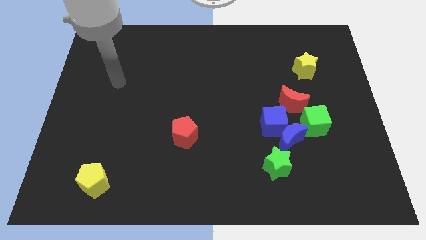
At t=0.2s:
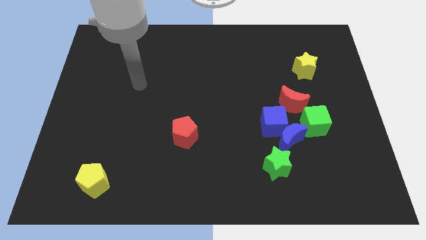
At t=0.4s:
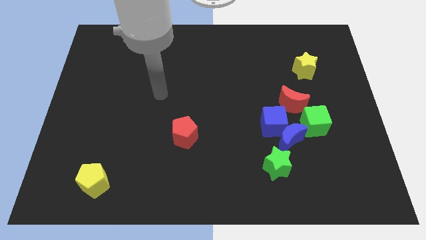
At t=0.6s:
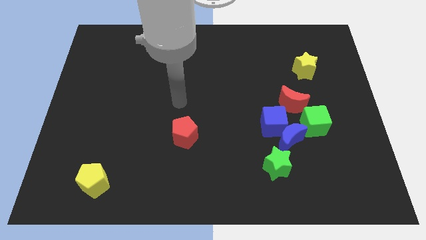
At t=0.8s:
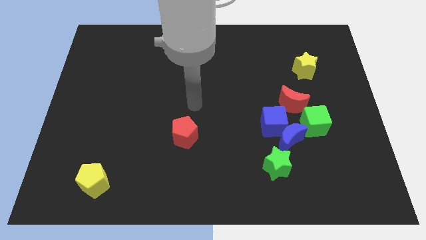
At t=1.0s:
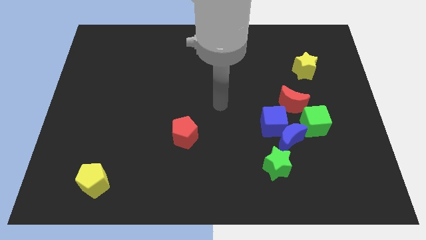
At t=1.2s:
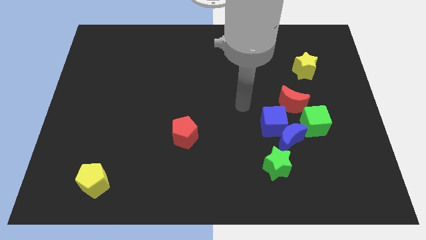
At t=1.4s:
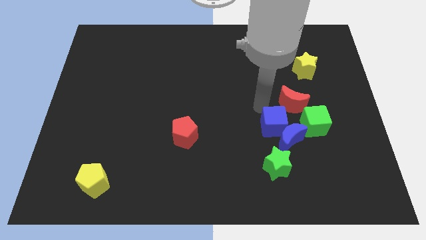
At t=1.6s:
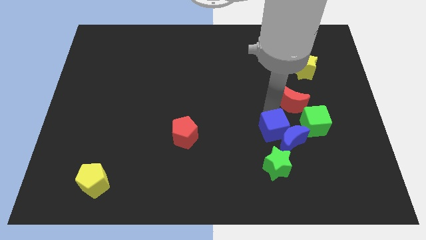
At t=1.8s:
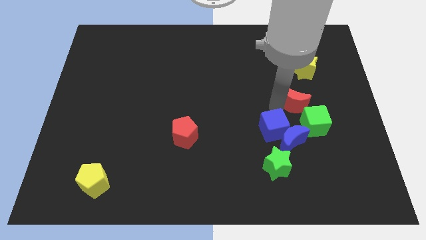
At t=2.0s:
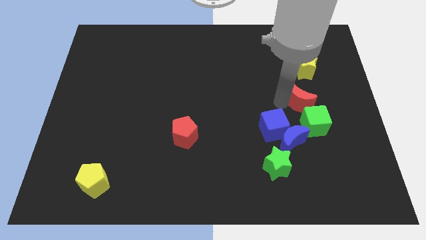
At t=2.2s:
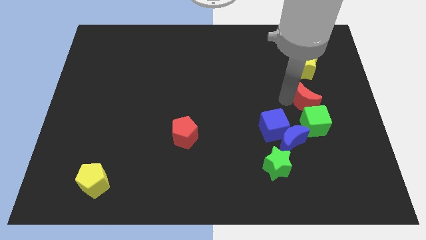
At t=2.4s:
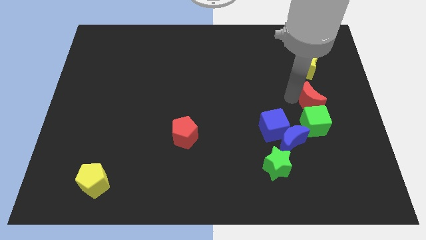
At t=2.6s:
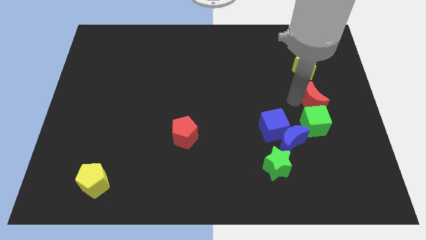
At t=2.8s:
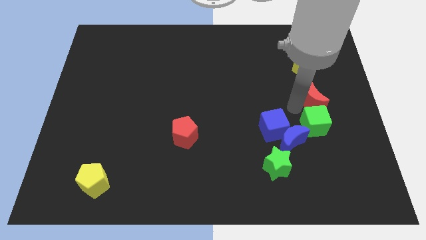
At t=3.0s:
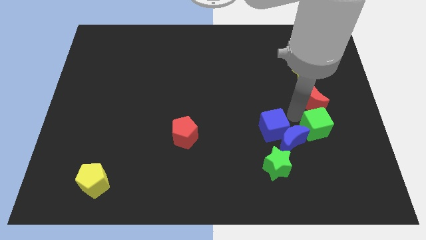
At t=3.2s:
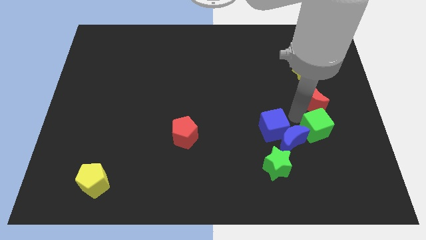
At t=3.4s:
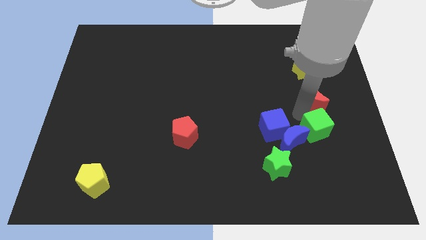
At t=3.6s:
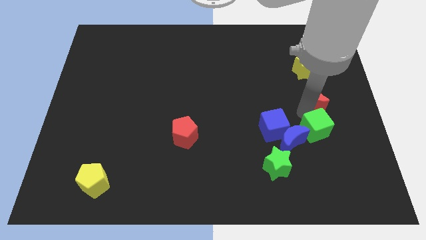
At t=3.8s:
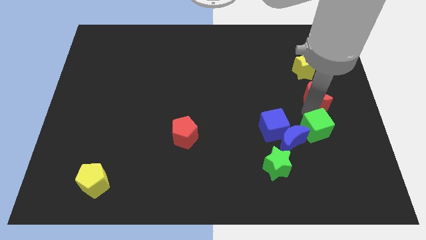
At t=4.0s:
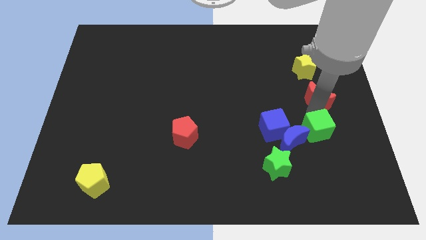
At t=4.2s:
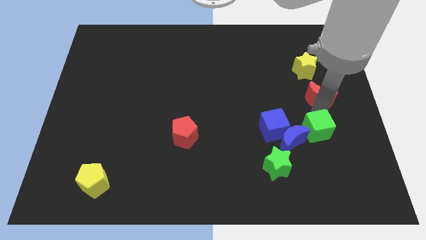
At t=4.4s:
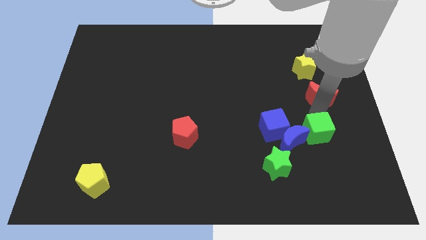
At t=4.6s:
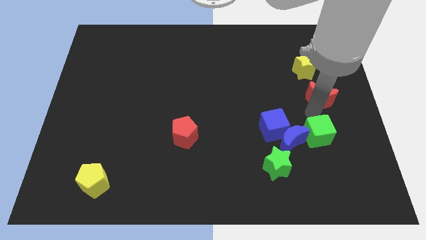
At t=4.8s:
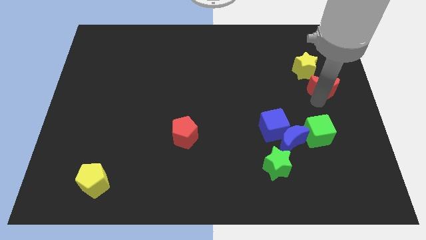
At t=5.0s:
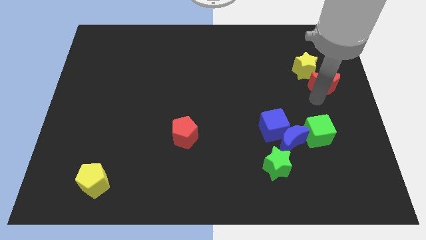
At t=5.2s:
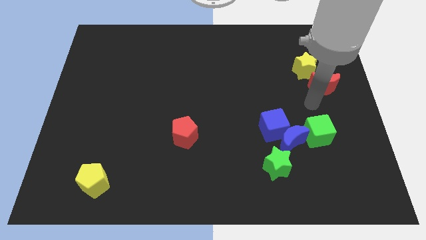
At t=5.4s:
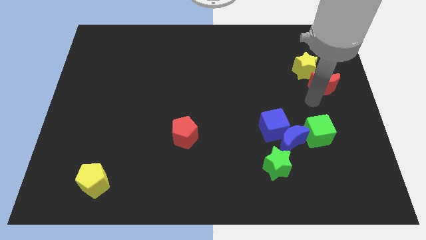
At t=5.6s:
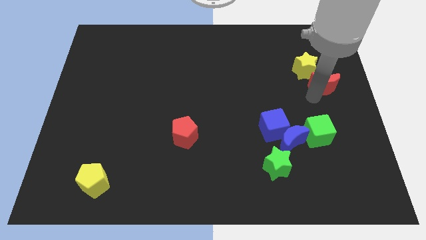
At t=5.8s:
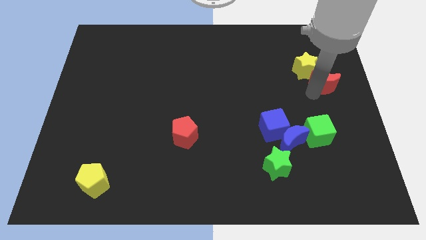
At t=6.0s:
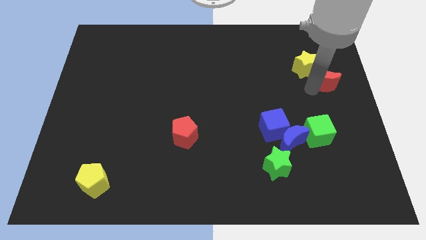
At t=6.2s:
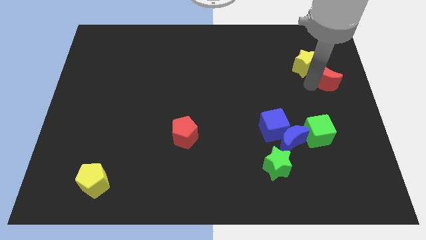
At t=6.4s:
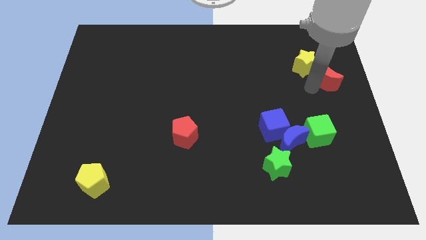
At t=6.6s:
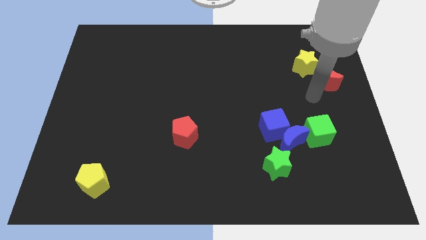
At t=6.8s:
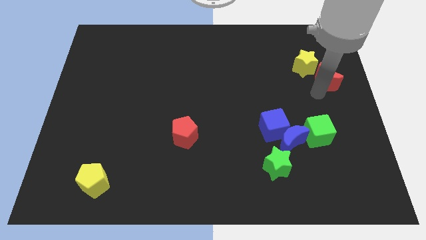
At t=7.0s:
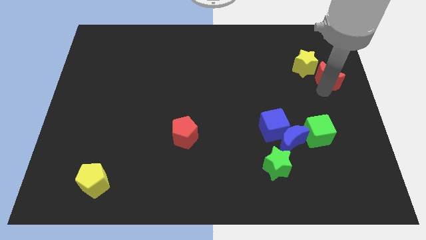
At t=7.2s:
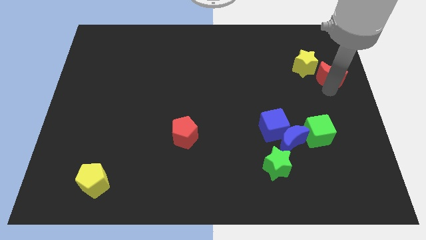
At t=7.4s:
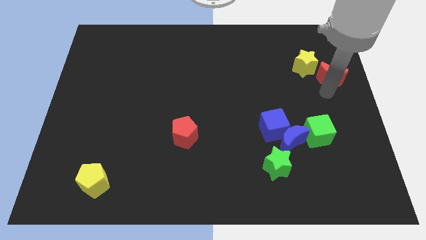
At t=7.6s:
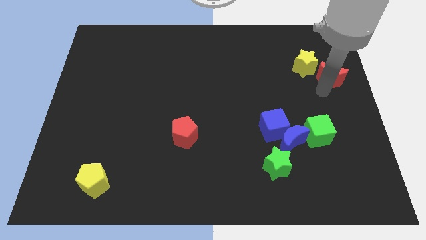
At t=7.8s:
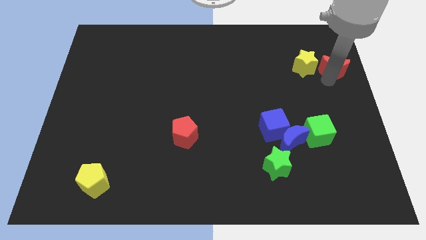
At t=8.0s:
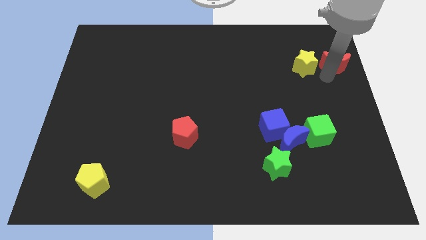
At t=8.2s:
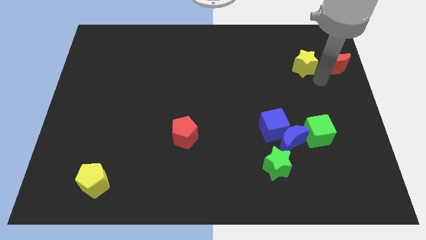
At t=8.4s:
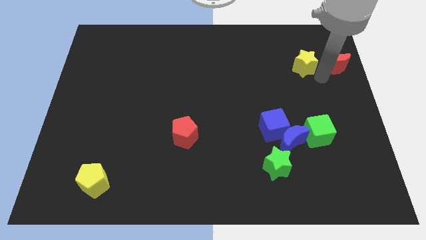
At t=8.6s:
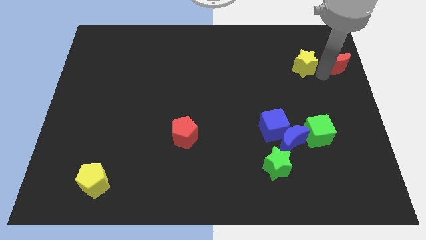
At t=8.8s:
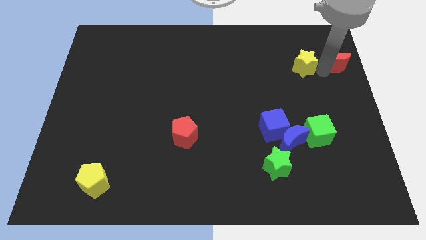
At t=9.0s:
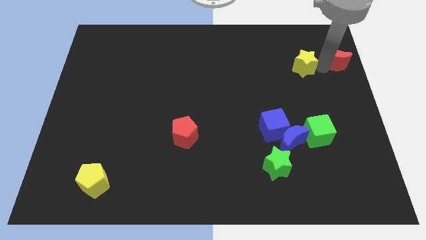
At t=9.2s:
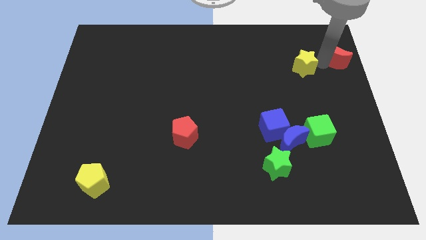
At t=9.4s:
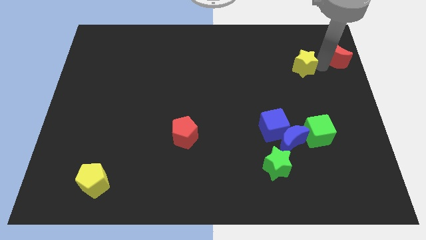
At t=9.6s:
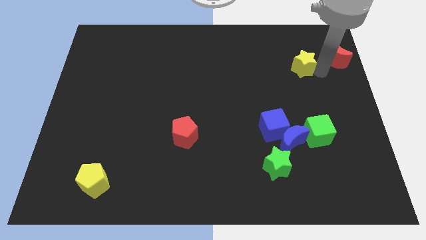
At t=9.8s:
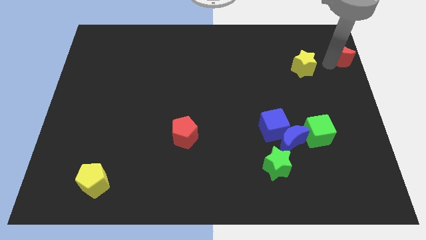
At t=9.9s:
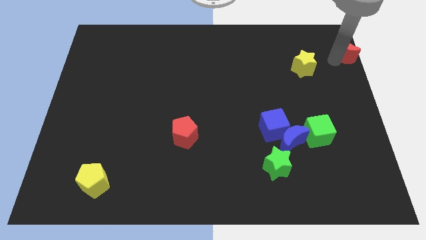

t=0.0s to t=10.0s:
push the red moon to the top right of the board
